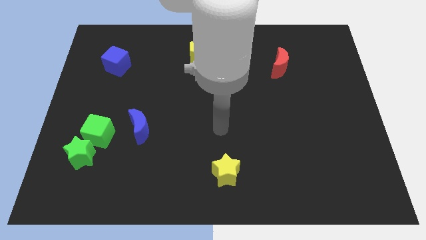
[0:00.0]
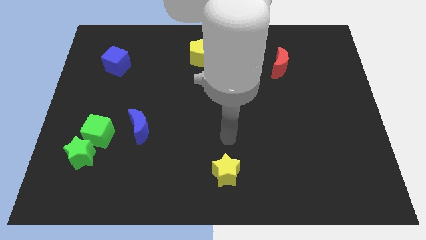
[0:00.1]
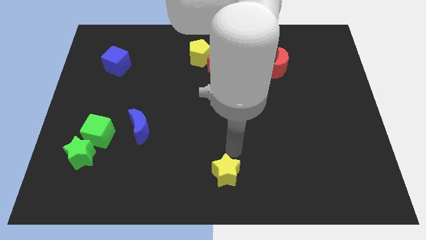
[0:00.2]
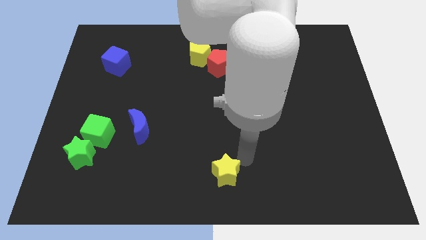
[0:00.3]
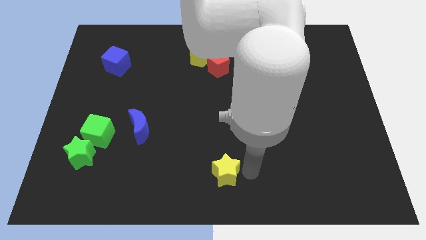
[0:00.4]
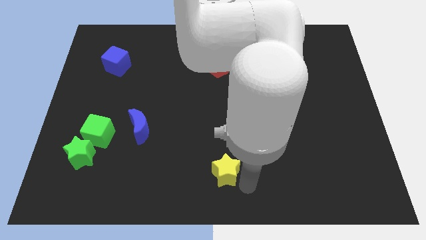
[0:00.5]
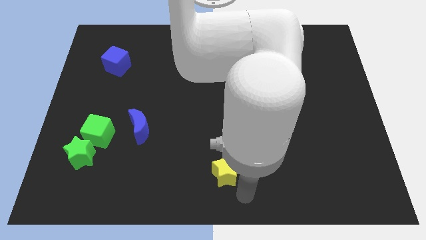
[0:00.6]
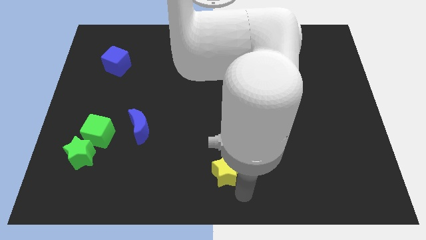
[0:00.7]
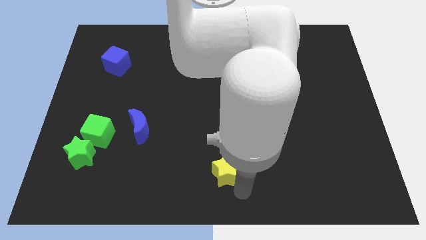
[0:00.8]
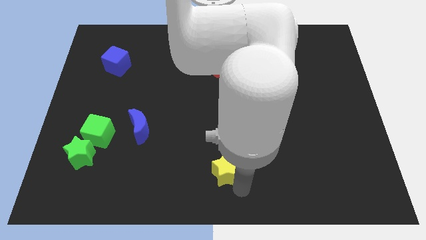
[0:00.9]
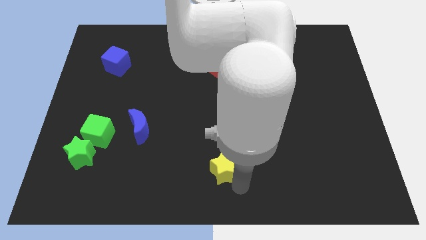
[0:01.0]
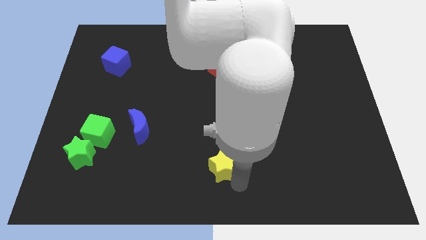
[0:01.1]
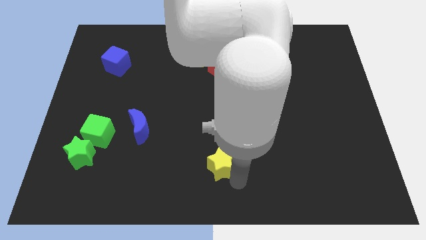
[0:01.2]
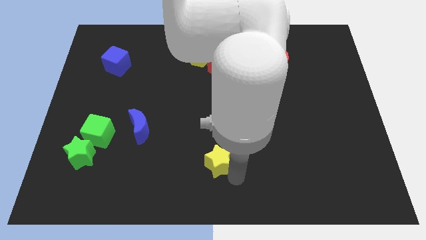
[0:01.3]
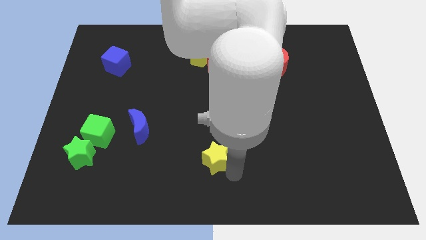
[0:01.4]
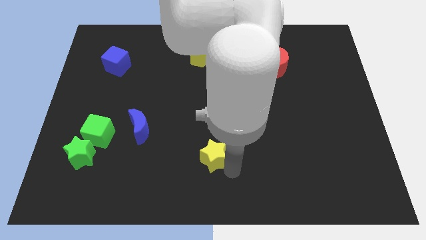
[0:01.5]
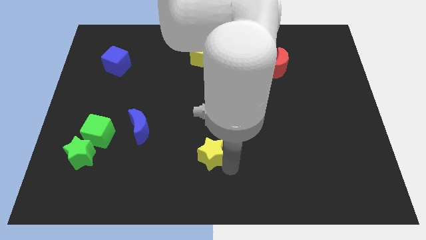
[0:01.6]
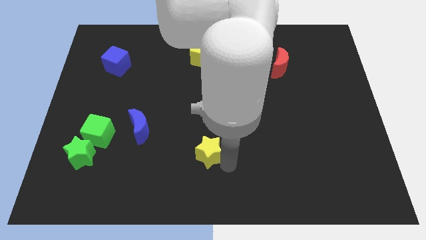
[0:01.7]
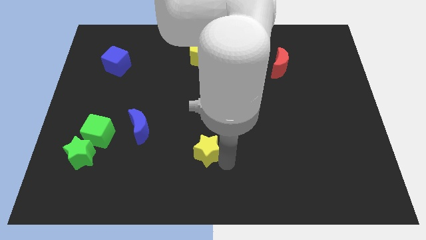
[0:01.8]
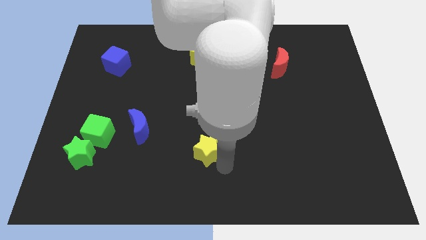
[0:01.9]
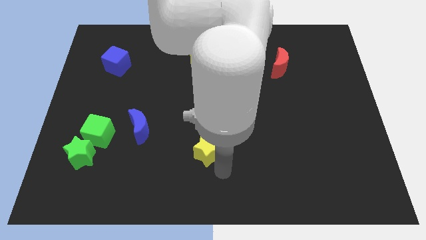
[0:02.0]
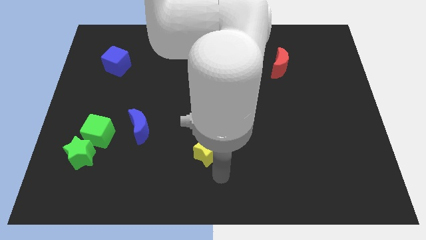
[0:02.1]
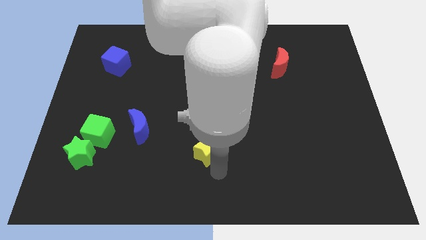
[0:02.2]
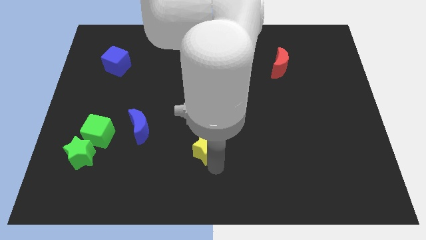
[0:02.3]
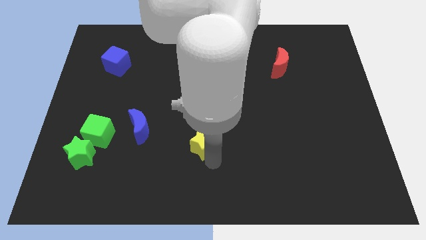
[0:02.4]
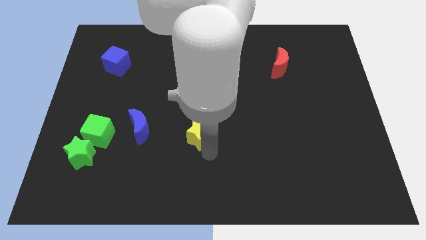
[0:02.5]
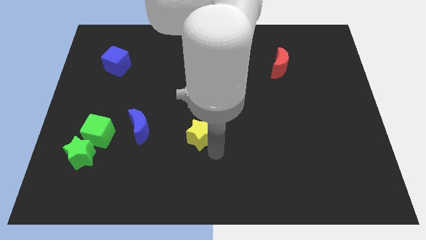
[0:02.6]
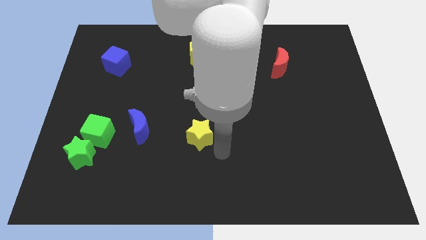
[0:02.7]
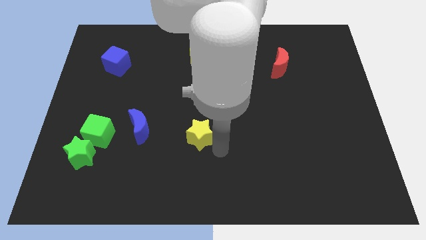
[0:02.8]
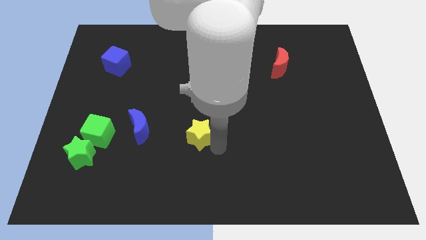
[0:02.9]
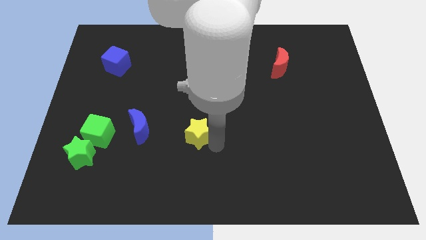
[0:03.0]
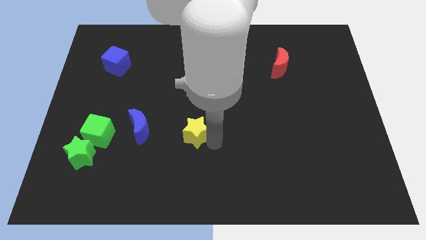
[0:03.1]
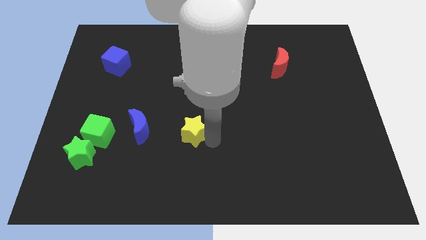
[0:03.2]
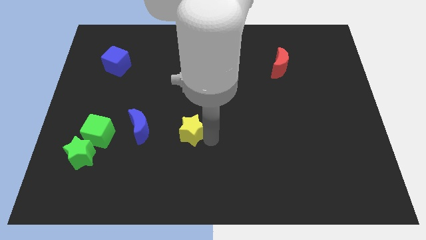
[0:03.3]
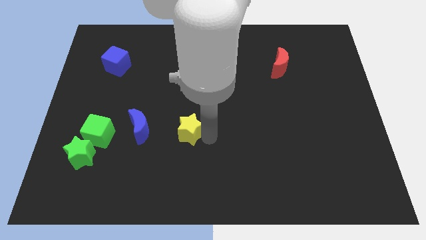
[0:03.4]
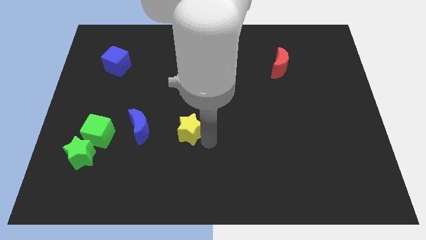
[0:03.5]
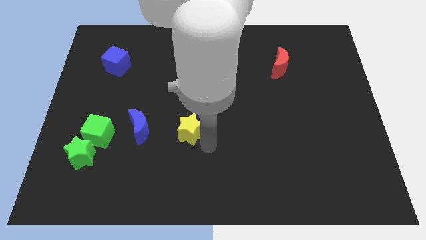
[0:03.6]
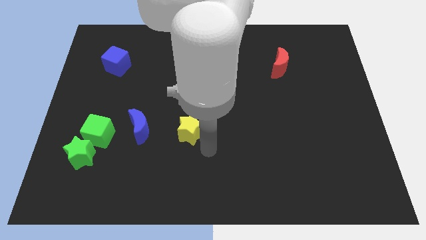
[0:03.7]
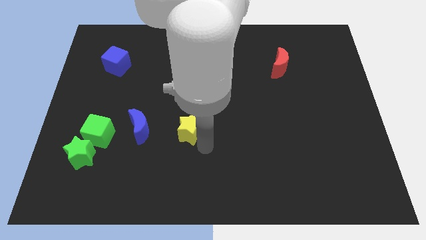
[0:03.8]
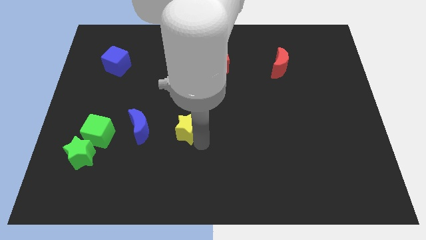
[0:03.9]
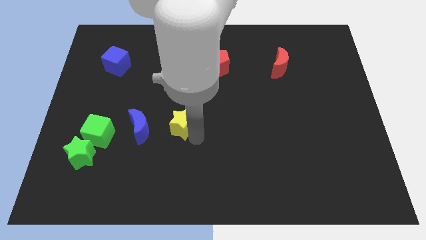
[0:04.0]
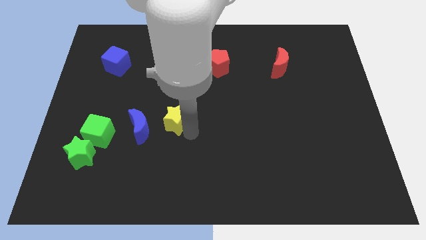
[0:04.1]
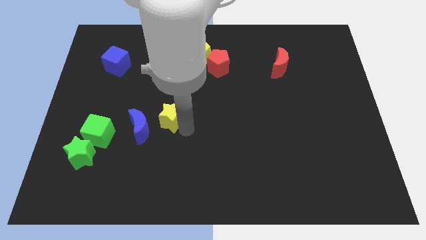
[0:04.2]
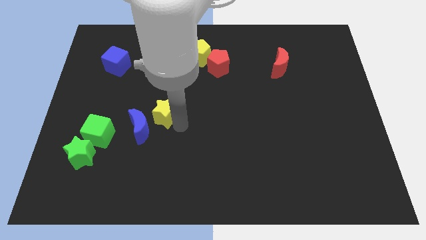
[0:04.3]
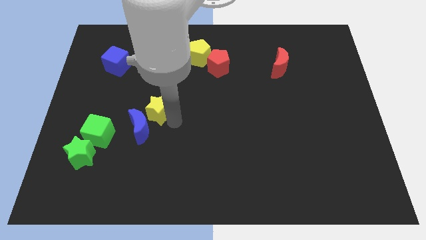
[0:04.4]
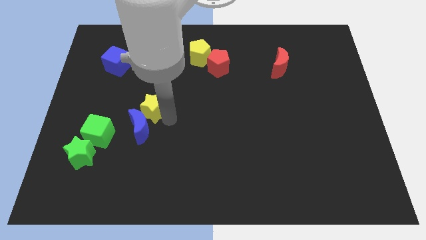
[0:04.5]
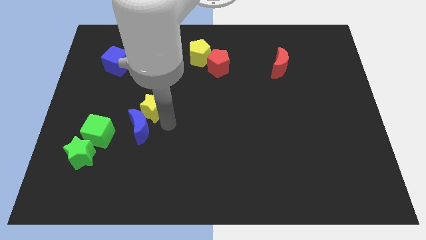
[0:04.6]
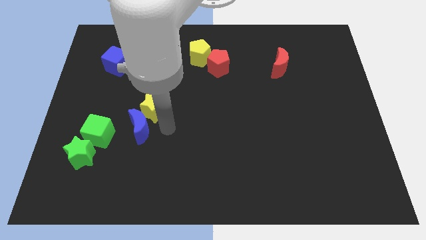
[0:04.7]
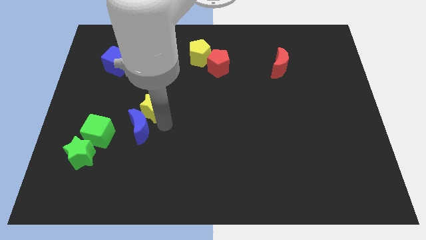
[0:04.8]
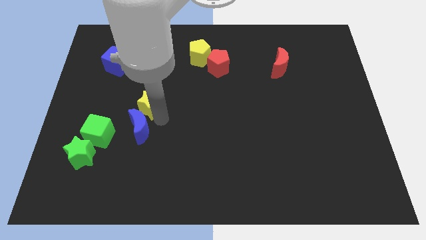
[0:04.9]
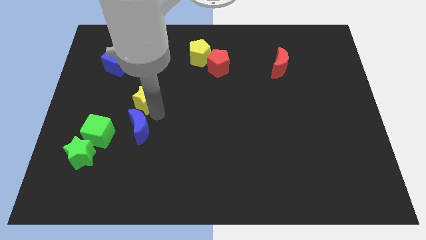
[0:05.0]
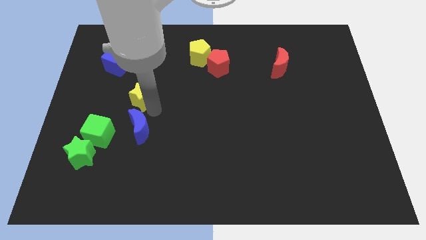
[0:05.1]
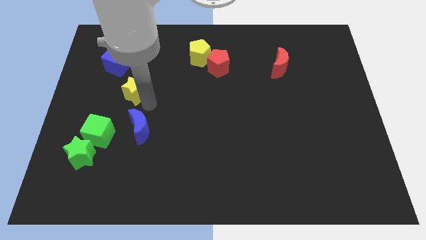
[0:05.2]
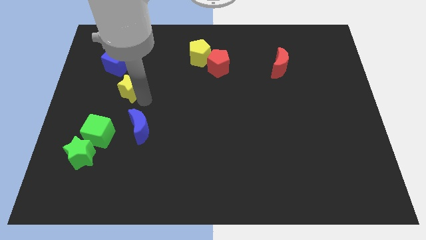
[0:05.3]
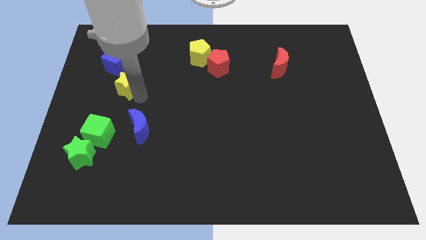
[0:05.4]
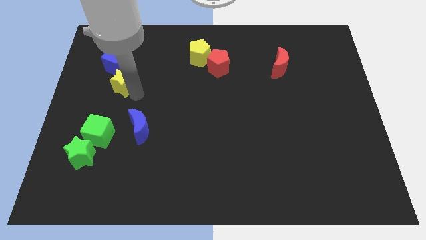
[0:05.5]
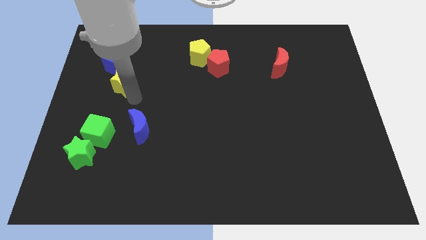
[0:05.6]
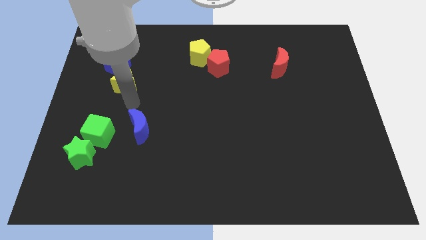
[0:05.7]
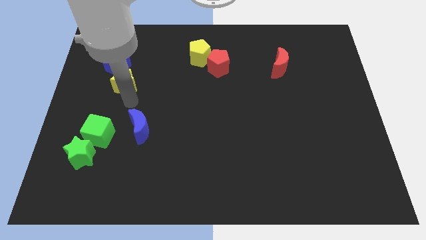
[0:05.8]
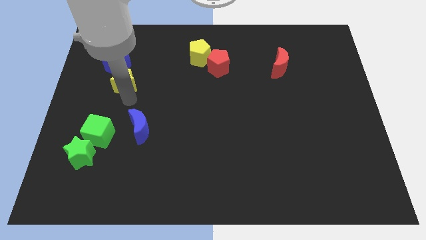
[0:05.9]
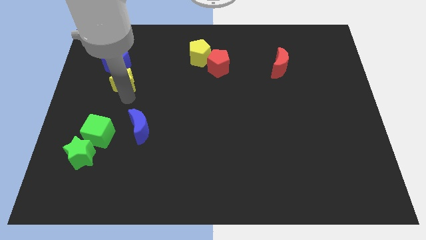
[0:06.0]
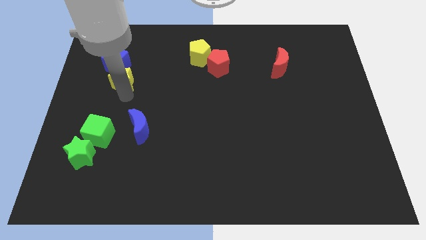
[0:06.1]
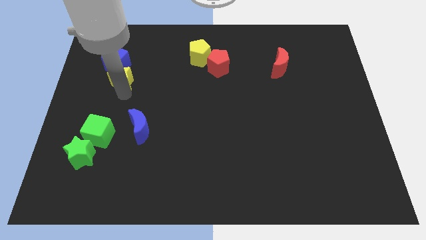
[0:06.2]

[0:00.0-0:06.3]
push the yellow star next to the blue cube
